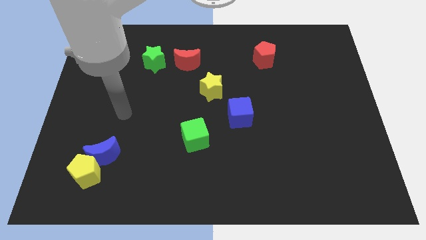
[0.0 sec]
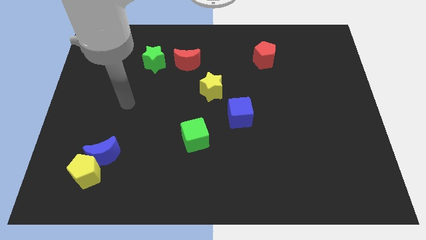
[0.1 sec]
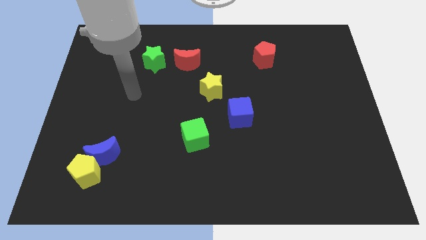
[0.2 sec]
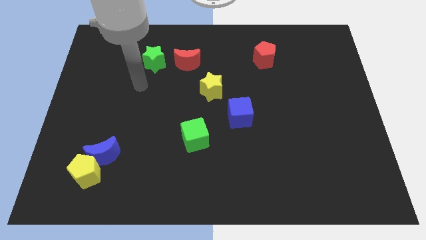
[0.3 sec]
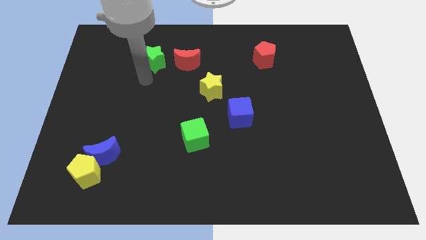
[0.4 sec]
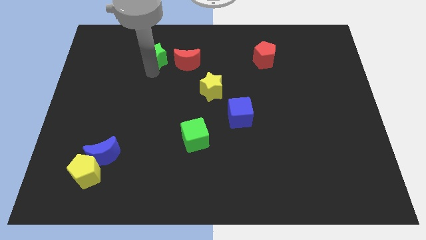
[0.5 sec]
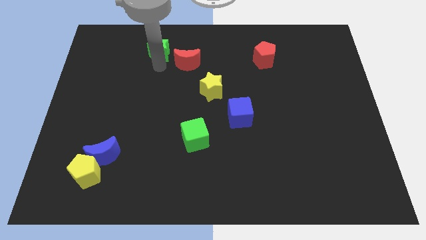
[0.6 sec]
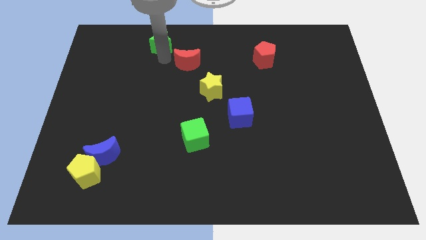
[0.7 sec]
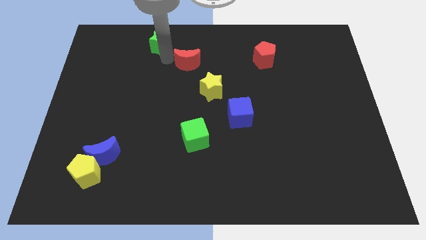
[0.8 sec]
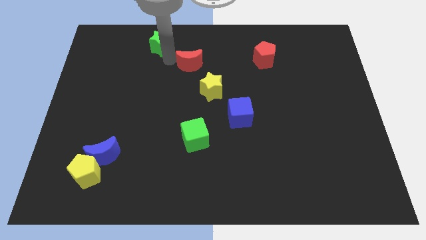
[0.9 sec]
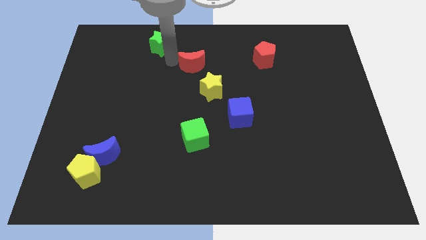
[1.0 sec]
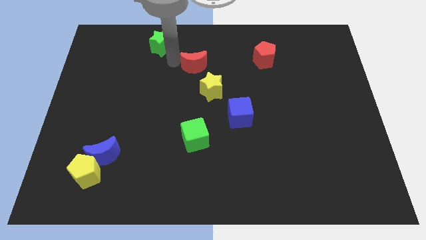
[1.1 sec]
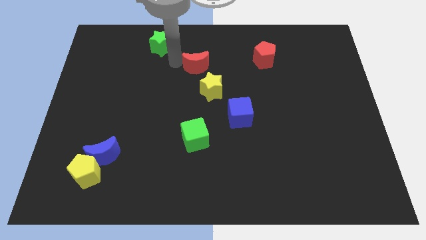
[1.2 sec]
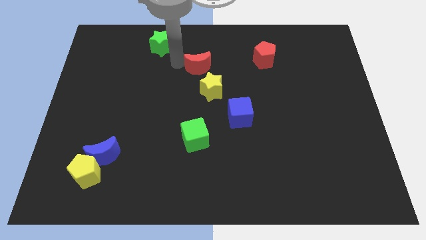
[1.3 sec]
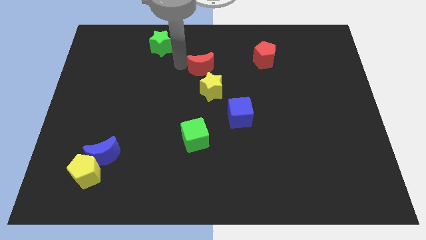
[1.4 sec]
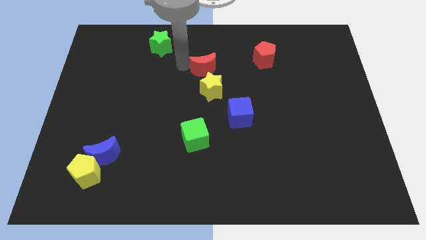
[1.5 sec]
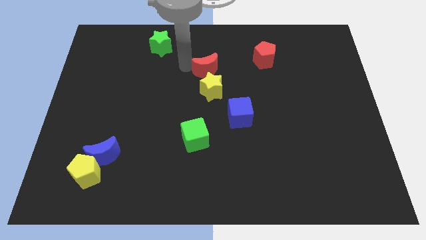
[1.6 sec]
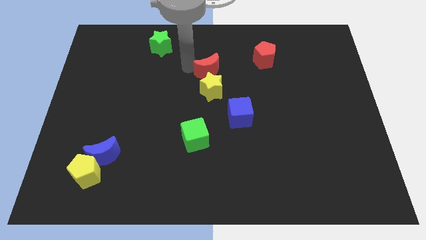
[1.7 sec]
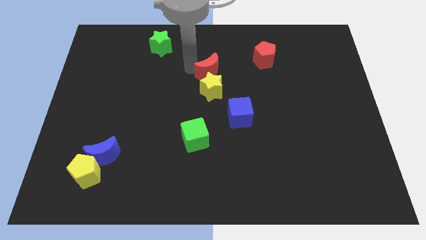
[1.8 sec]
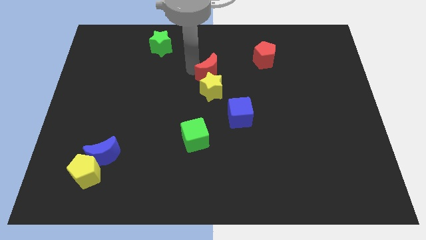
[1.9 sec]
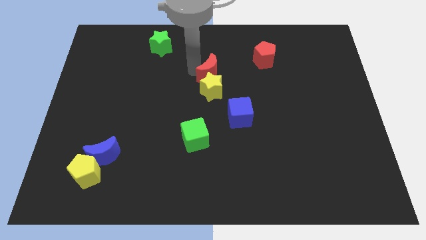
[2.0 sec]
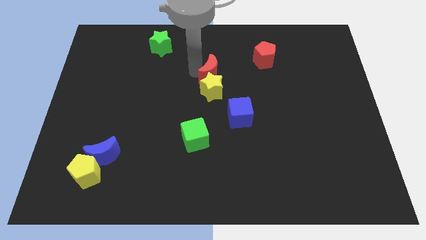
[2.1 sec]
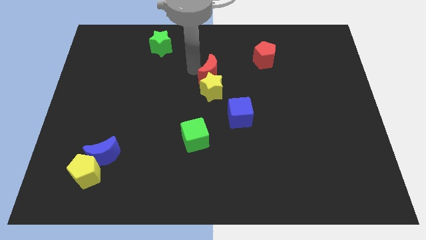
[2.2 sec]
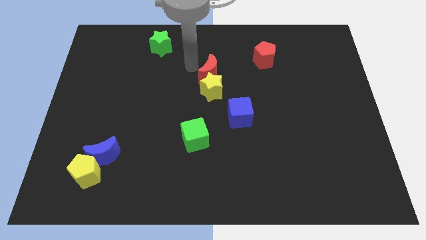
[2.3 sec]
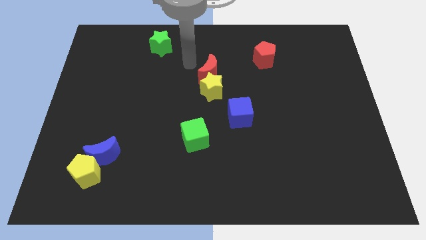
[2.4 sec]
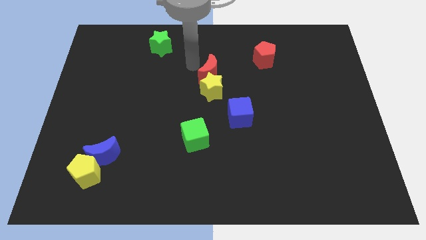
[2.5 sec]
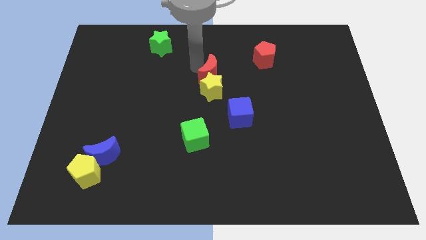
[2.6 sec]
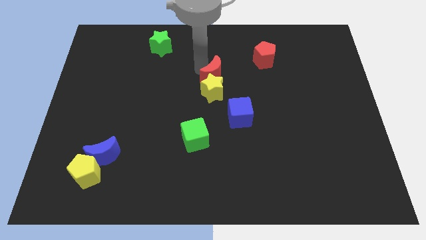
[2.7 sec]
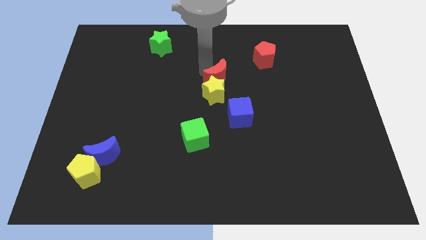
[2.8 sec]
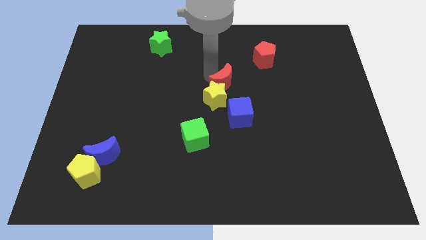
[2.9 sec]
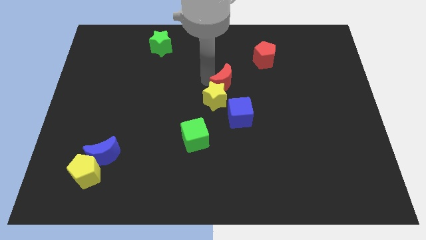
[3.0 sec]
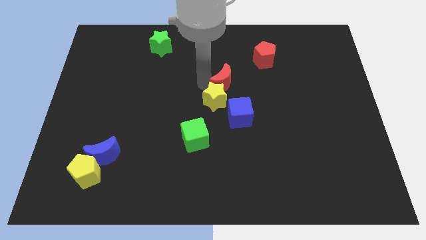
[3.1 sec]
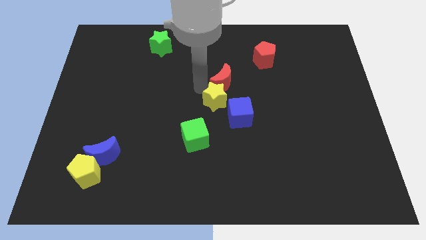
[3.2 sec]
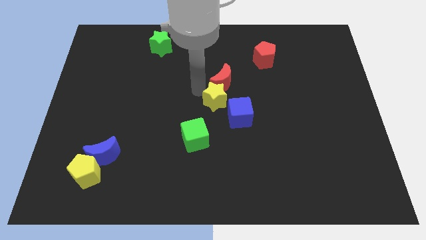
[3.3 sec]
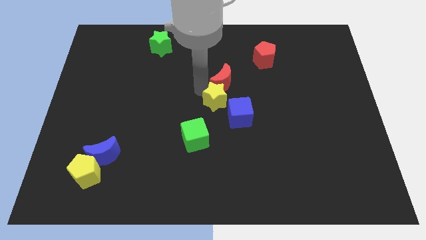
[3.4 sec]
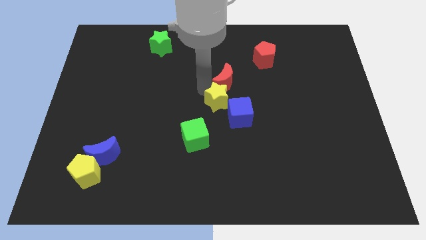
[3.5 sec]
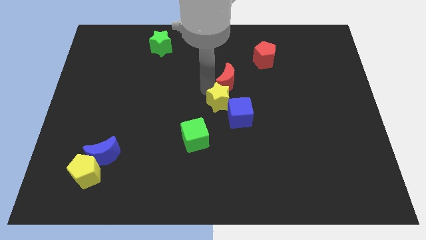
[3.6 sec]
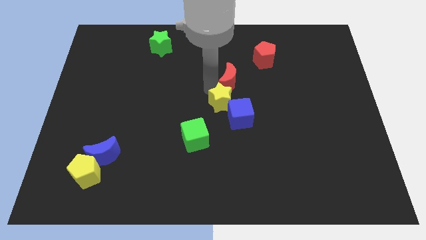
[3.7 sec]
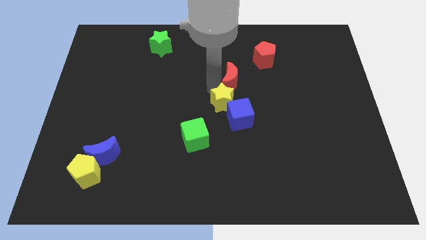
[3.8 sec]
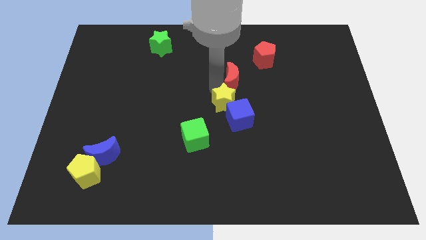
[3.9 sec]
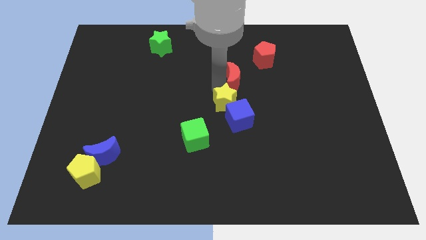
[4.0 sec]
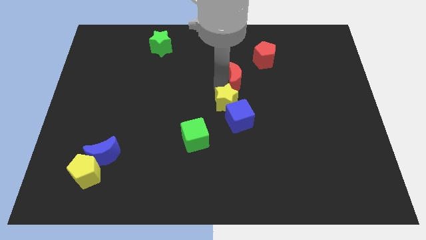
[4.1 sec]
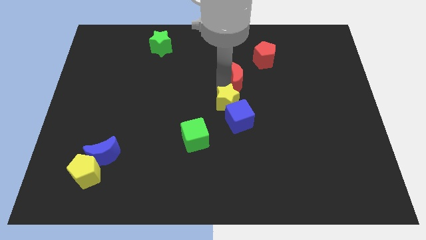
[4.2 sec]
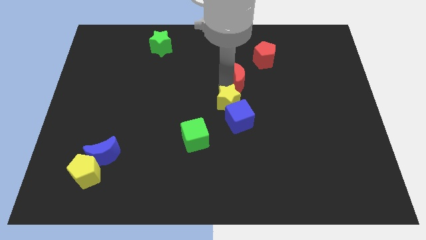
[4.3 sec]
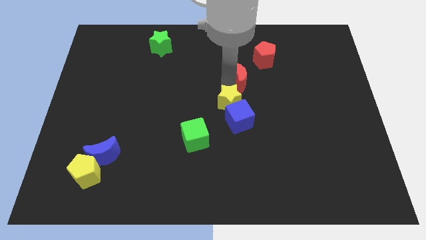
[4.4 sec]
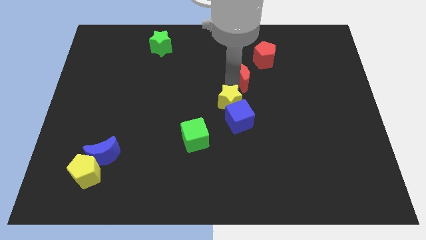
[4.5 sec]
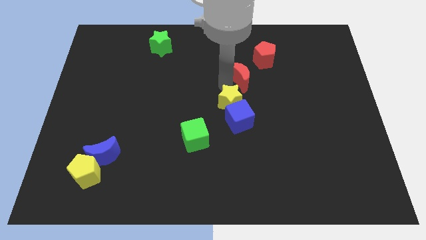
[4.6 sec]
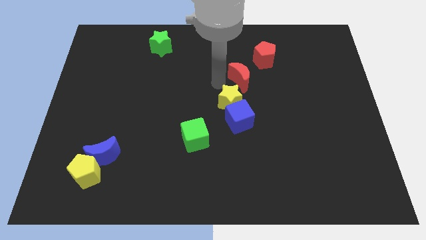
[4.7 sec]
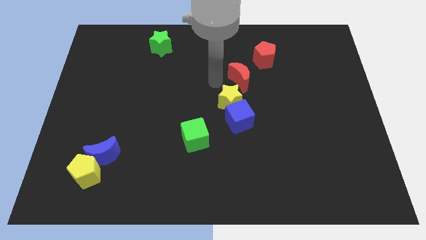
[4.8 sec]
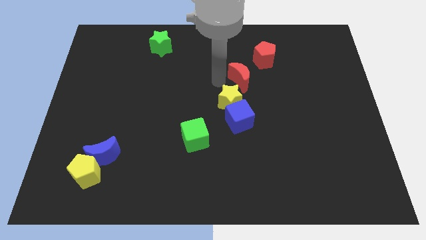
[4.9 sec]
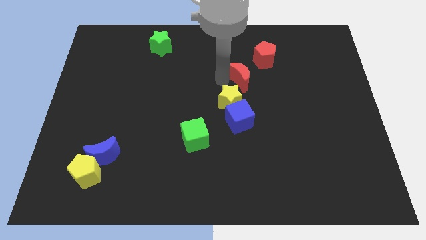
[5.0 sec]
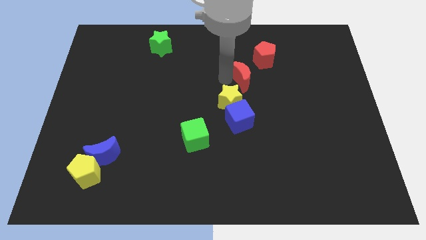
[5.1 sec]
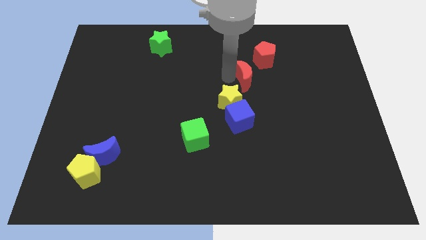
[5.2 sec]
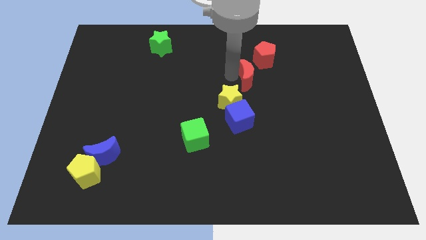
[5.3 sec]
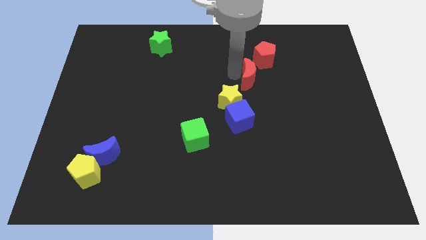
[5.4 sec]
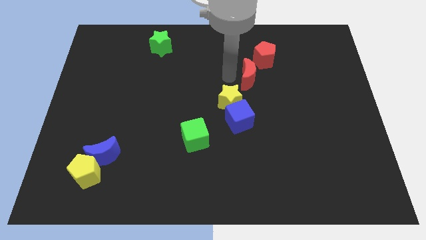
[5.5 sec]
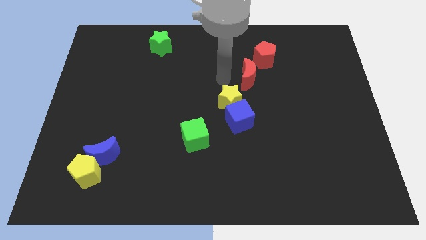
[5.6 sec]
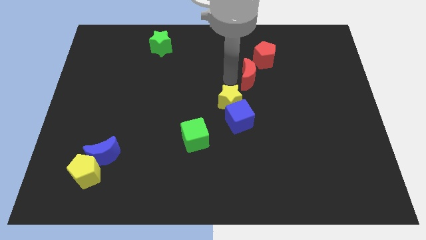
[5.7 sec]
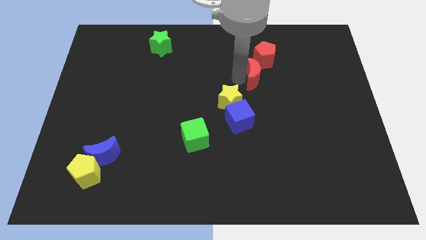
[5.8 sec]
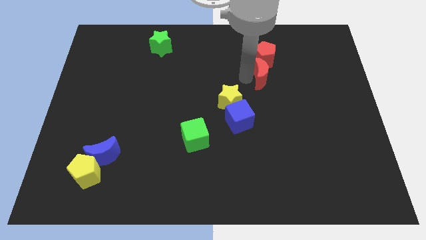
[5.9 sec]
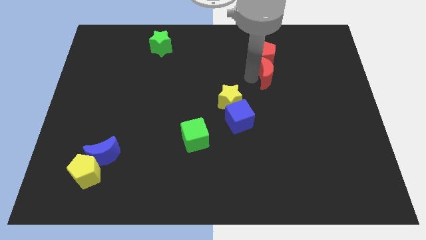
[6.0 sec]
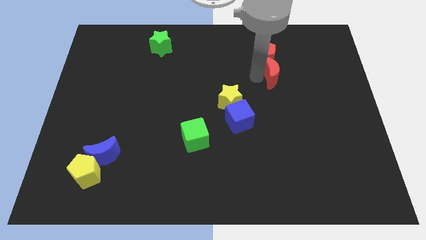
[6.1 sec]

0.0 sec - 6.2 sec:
slide the red moon right

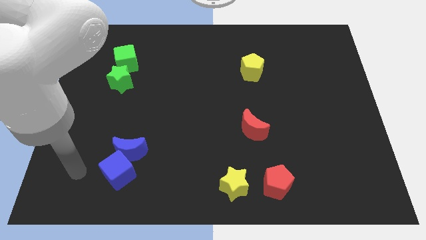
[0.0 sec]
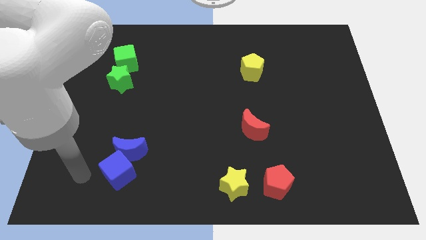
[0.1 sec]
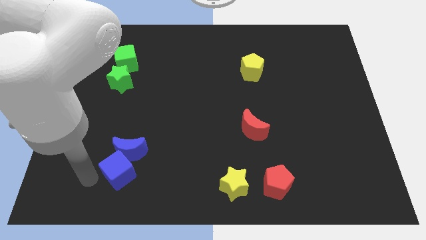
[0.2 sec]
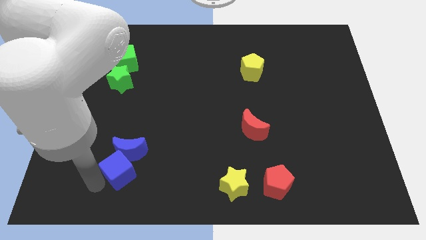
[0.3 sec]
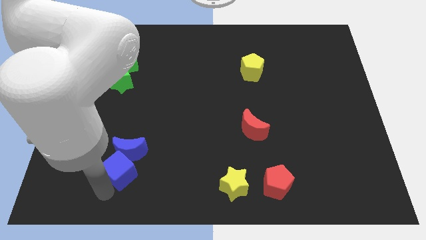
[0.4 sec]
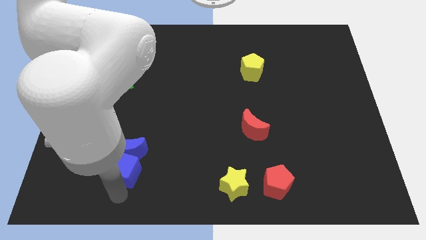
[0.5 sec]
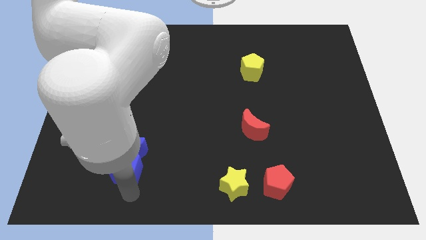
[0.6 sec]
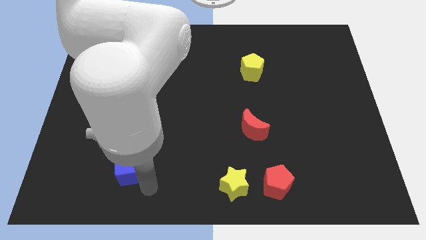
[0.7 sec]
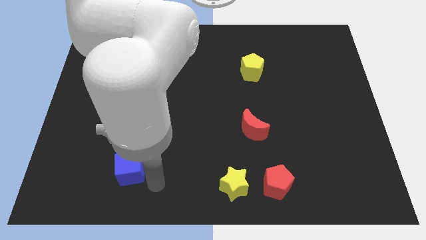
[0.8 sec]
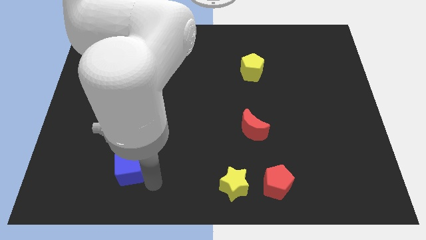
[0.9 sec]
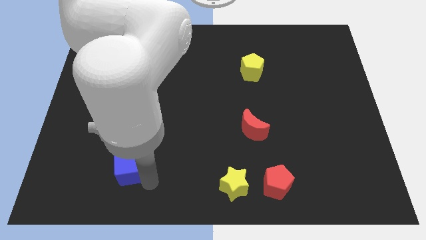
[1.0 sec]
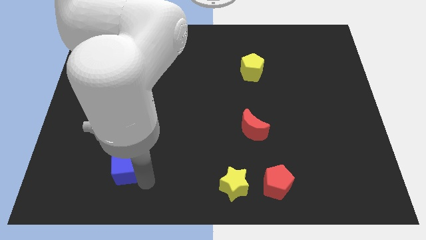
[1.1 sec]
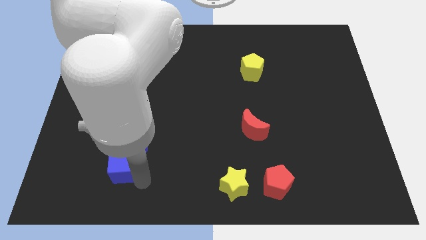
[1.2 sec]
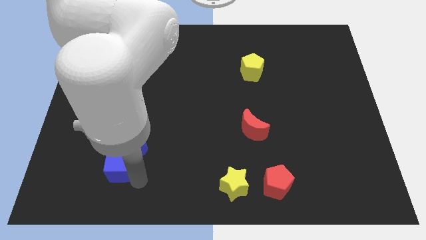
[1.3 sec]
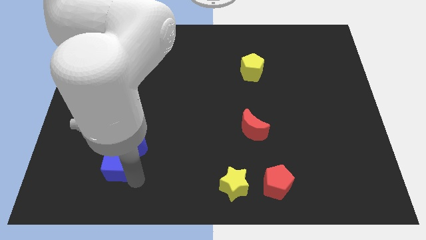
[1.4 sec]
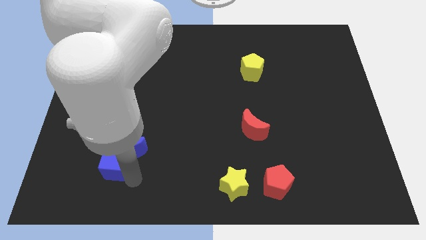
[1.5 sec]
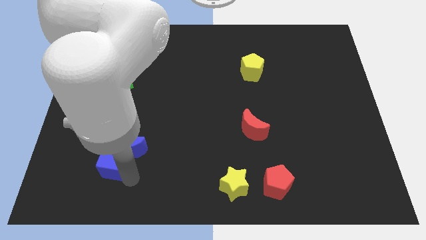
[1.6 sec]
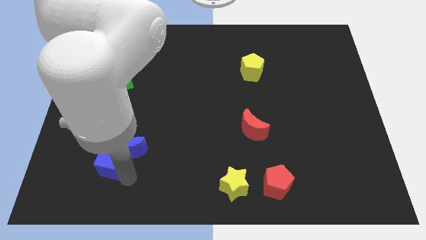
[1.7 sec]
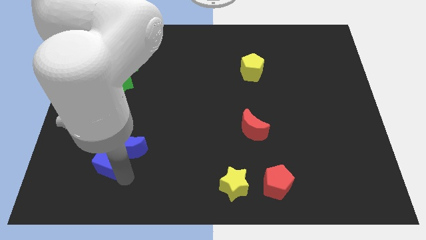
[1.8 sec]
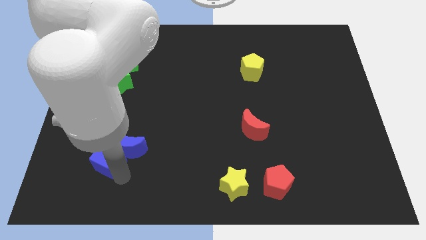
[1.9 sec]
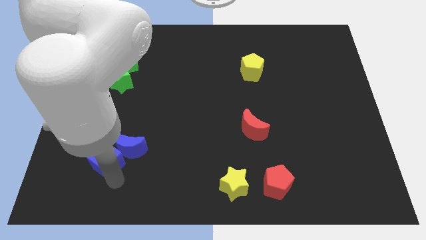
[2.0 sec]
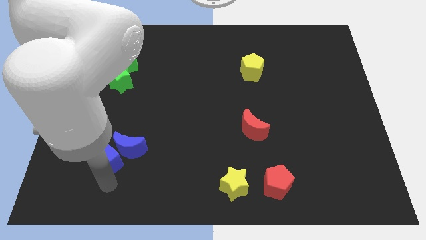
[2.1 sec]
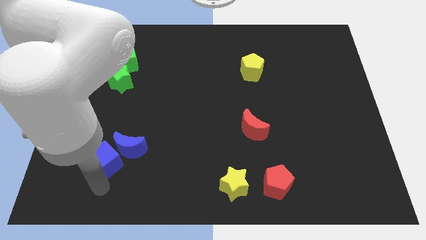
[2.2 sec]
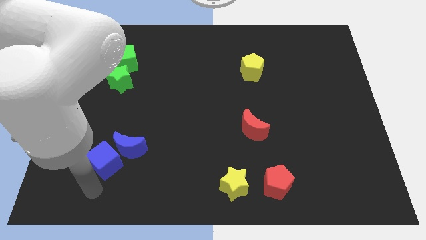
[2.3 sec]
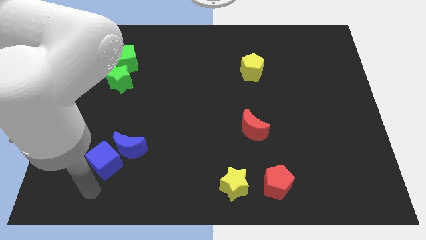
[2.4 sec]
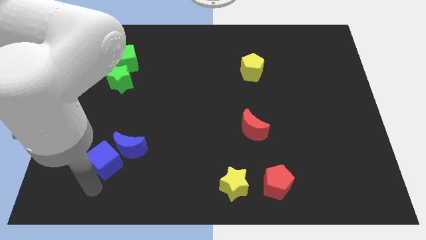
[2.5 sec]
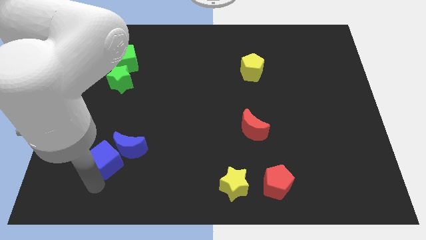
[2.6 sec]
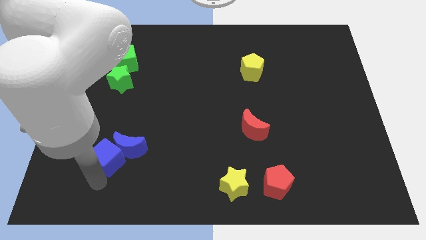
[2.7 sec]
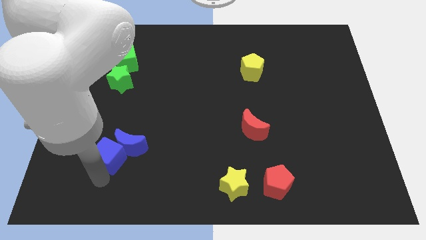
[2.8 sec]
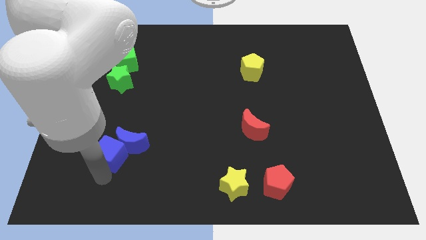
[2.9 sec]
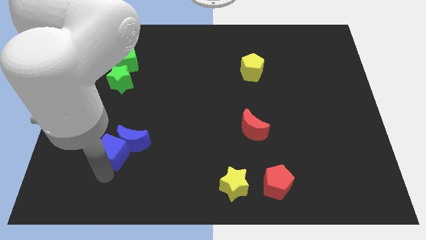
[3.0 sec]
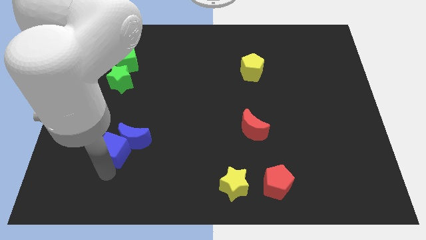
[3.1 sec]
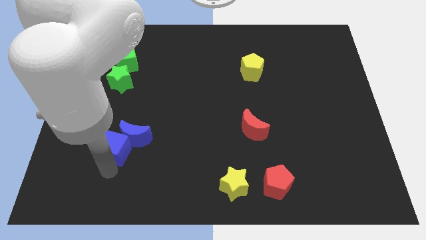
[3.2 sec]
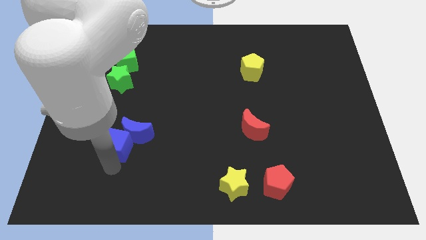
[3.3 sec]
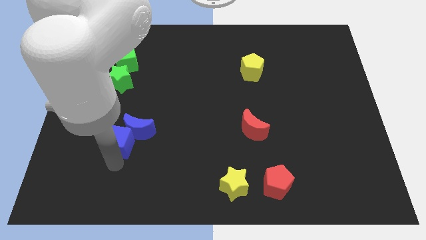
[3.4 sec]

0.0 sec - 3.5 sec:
slide the blue cube a little upwards
